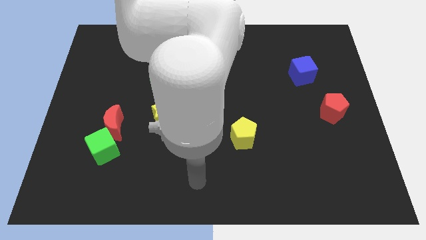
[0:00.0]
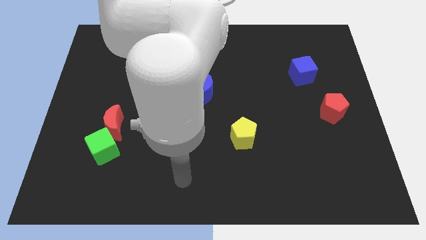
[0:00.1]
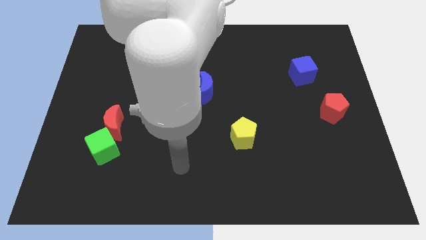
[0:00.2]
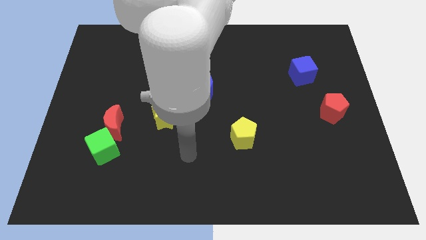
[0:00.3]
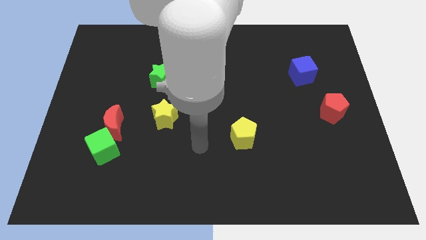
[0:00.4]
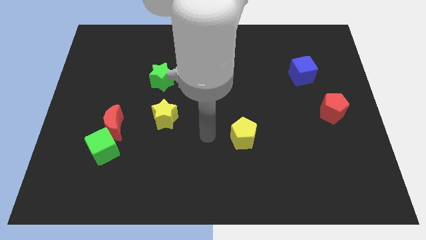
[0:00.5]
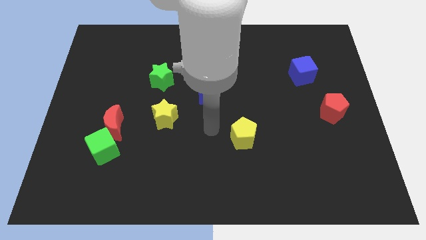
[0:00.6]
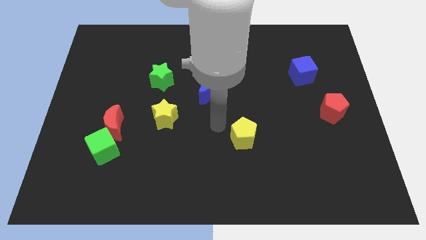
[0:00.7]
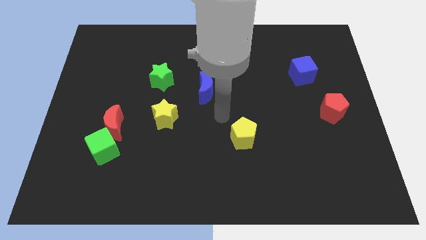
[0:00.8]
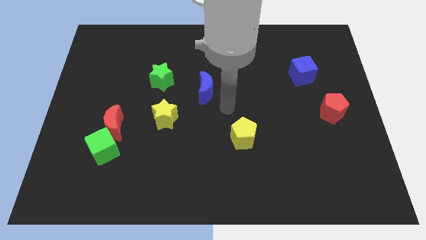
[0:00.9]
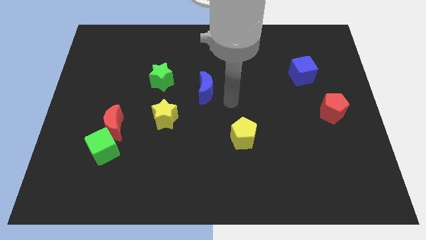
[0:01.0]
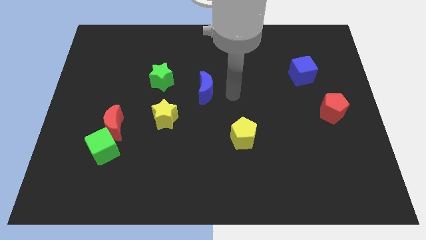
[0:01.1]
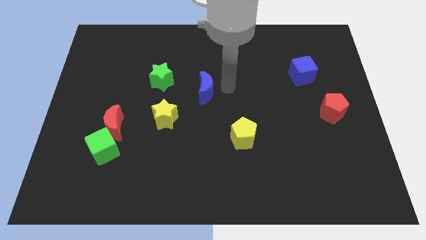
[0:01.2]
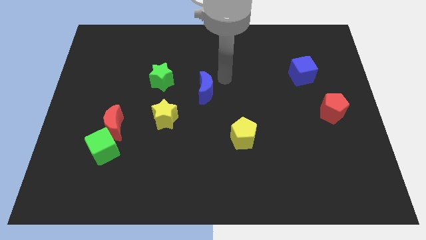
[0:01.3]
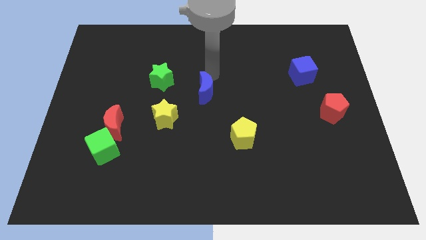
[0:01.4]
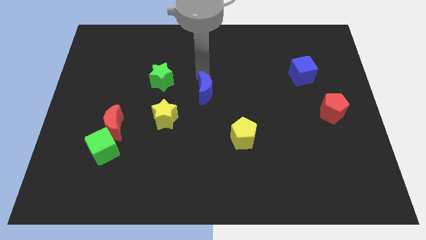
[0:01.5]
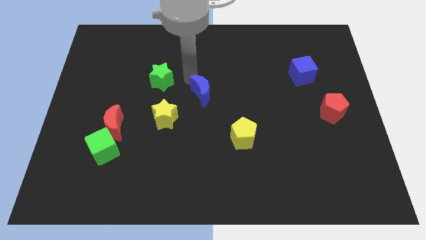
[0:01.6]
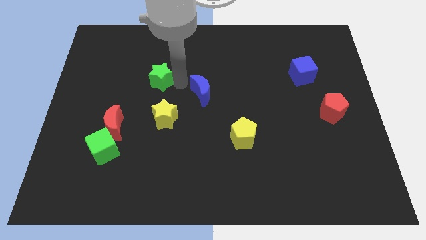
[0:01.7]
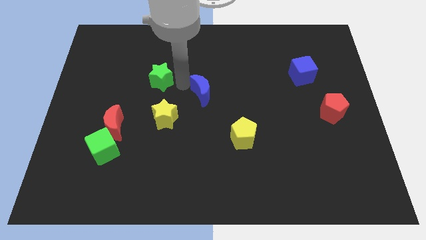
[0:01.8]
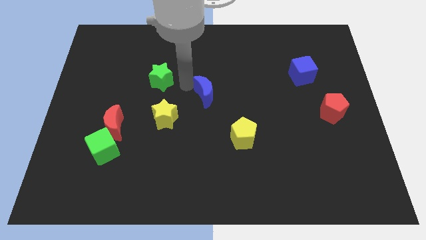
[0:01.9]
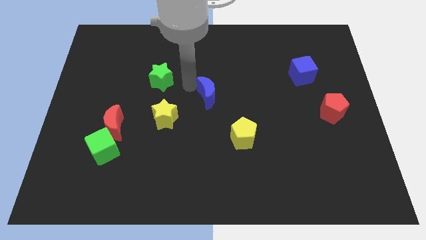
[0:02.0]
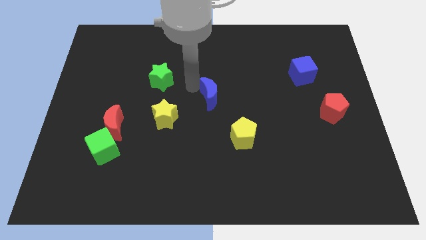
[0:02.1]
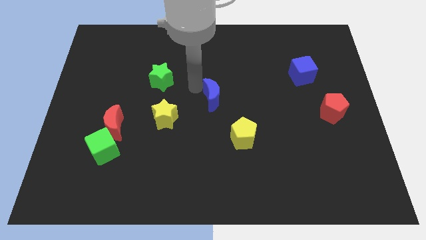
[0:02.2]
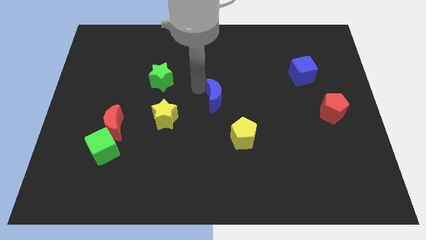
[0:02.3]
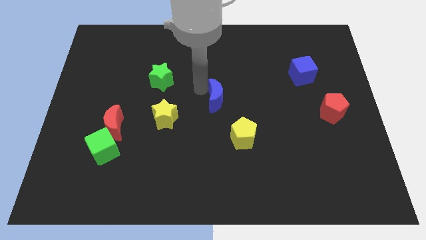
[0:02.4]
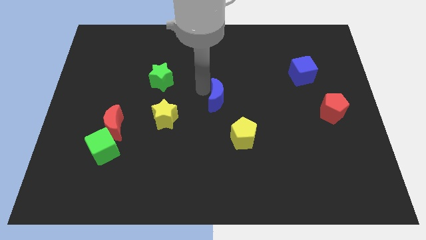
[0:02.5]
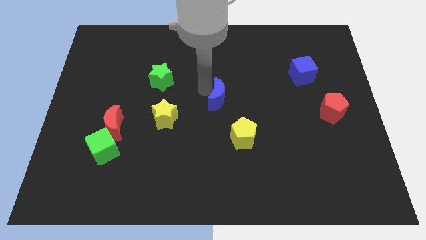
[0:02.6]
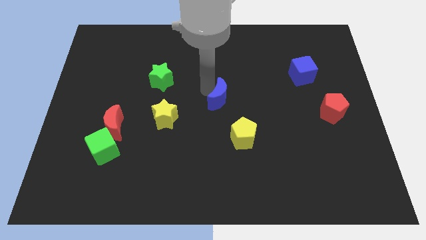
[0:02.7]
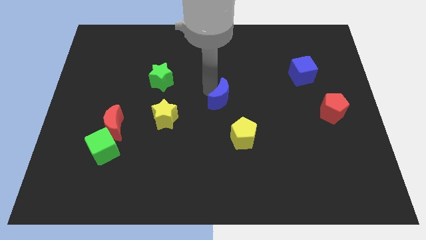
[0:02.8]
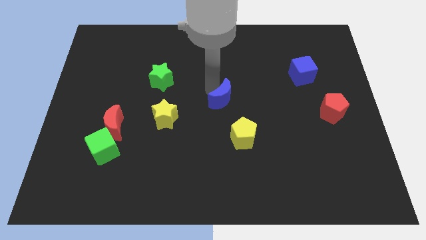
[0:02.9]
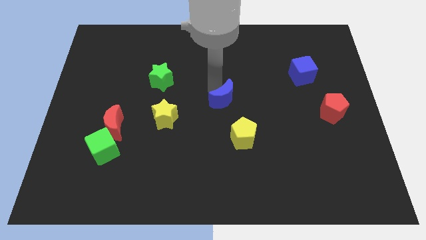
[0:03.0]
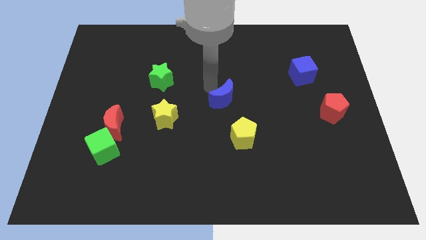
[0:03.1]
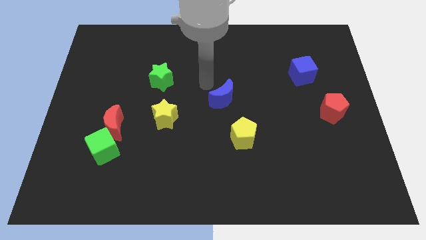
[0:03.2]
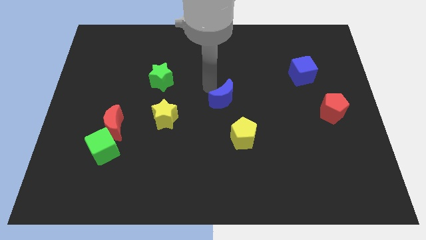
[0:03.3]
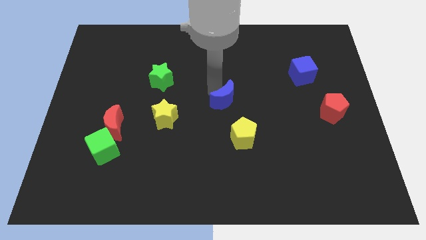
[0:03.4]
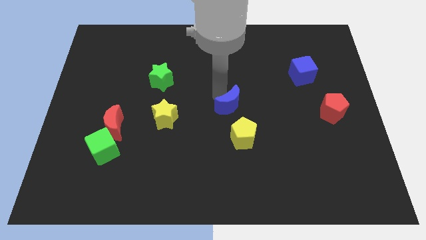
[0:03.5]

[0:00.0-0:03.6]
move the blue moon somewhat diagonally downwards and right

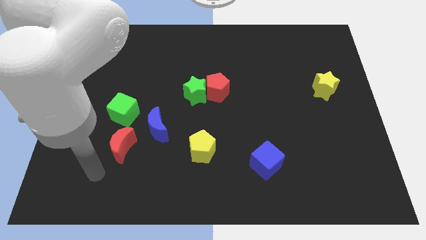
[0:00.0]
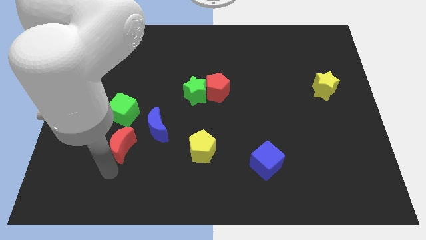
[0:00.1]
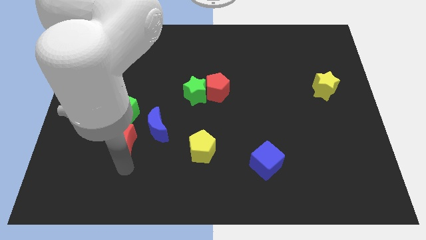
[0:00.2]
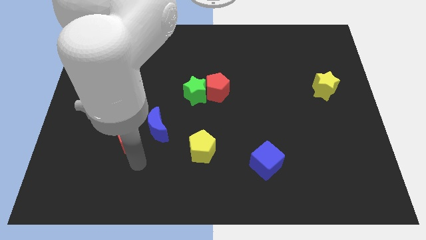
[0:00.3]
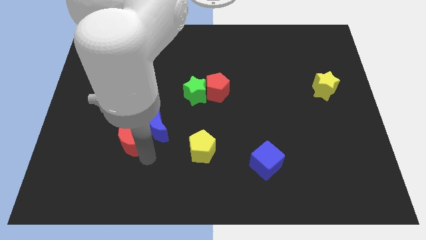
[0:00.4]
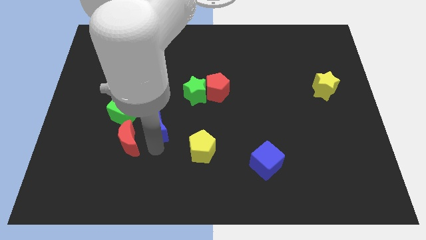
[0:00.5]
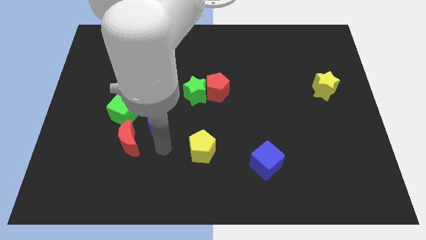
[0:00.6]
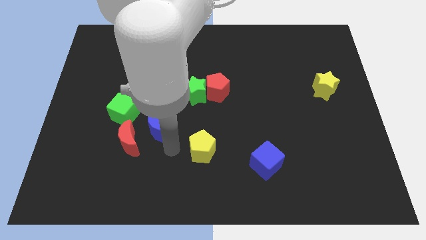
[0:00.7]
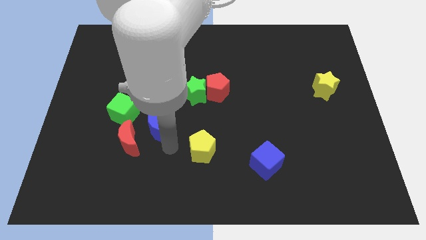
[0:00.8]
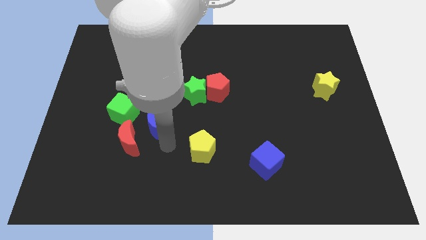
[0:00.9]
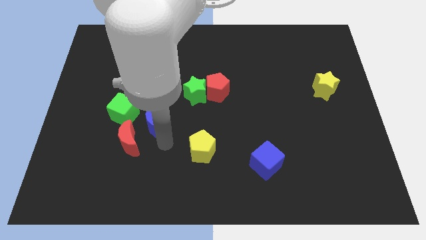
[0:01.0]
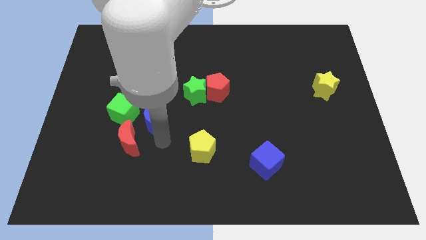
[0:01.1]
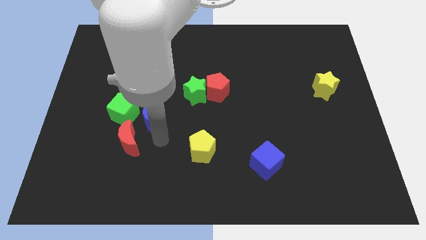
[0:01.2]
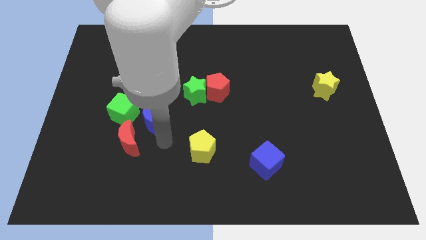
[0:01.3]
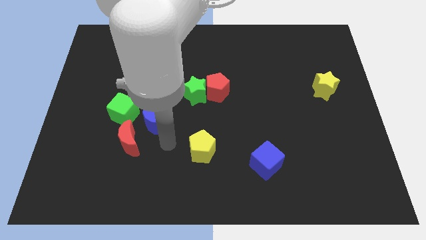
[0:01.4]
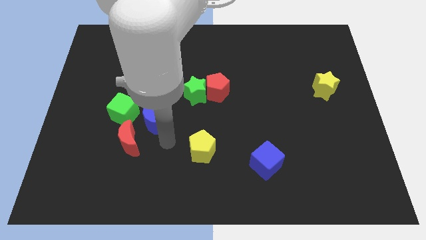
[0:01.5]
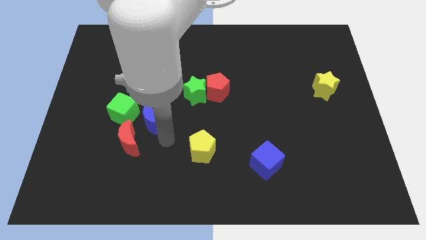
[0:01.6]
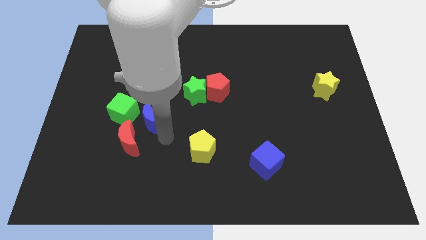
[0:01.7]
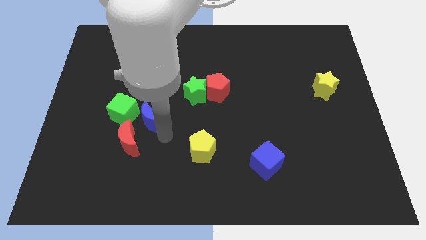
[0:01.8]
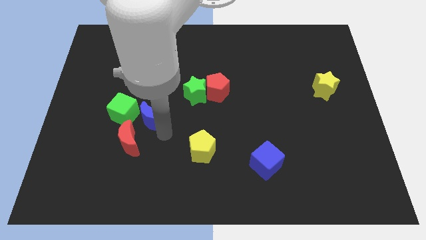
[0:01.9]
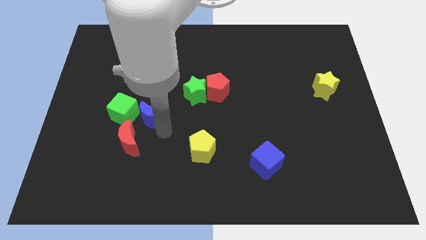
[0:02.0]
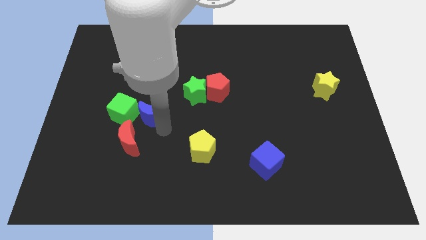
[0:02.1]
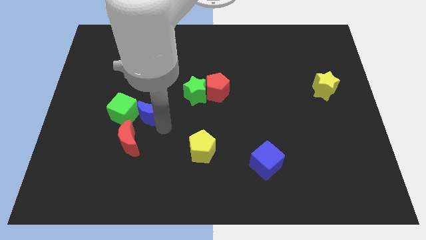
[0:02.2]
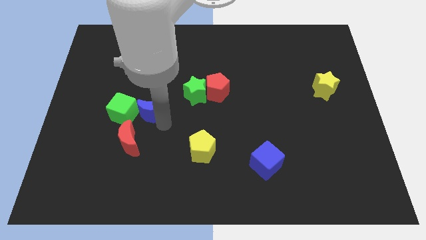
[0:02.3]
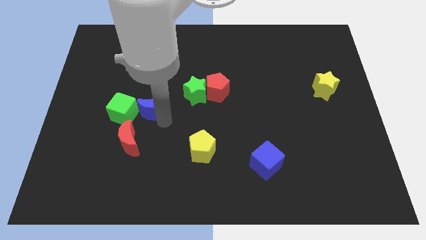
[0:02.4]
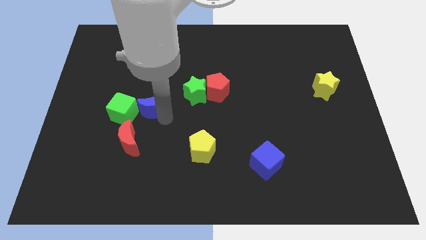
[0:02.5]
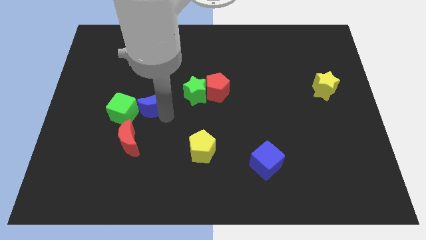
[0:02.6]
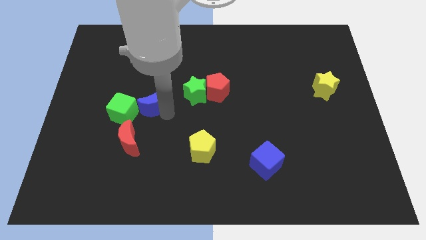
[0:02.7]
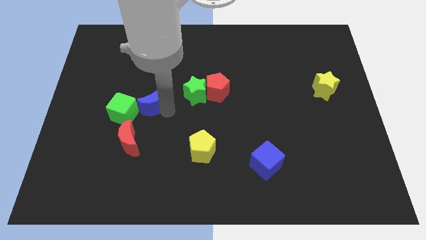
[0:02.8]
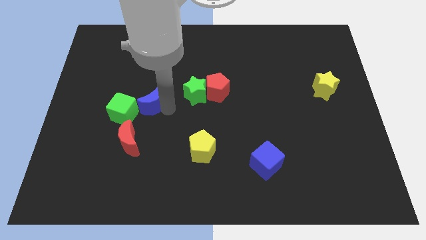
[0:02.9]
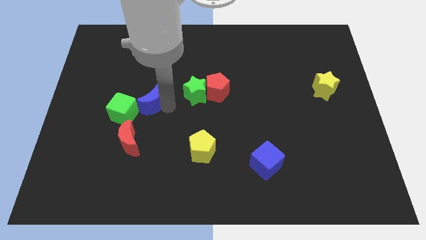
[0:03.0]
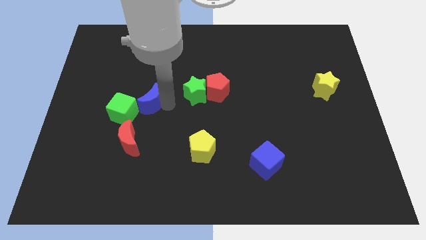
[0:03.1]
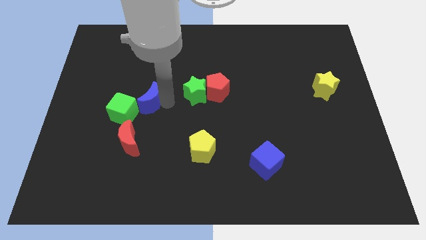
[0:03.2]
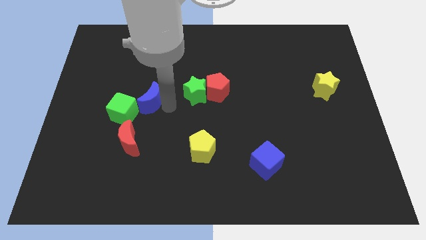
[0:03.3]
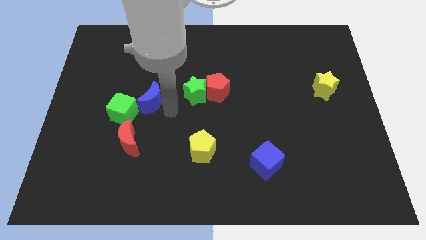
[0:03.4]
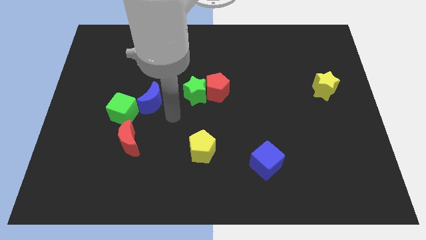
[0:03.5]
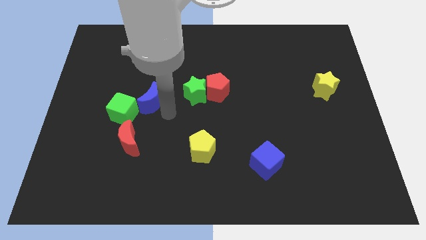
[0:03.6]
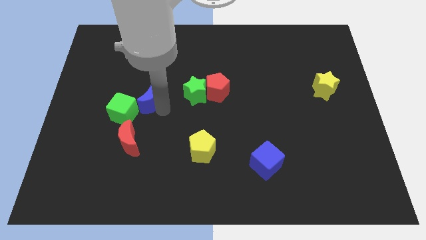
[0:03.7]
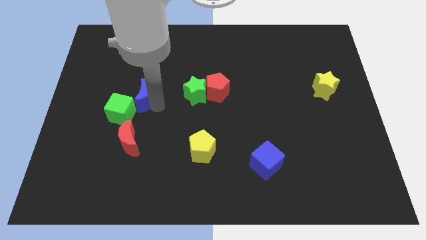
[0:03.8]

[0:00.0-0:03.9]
slightly slide the blue moon up and to the left

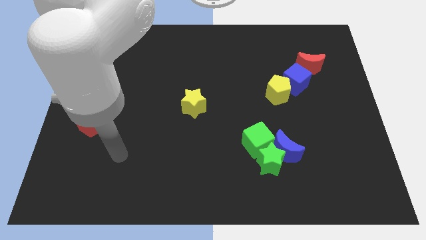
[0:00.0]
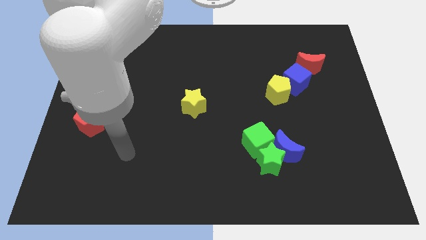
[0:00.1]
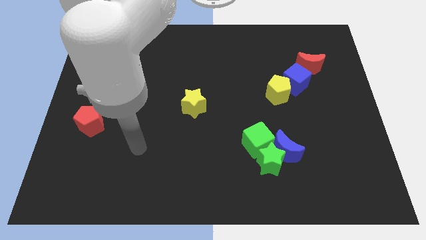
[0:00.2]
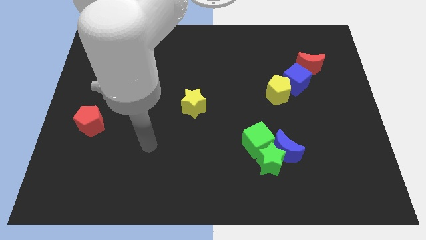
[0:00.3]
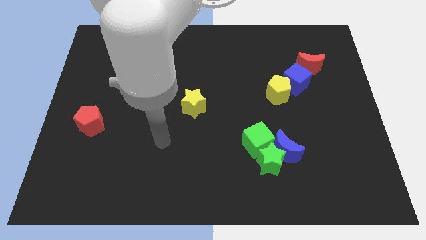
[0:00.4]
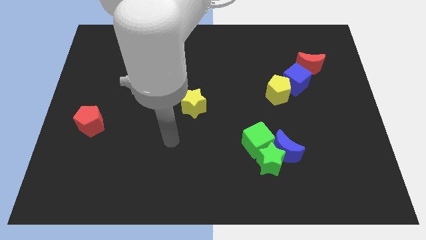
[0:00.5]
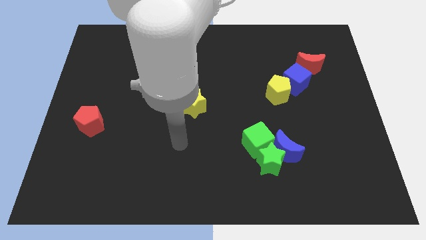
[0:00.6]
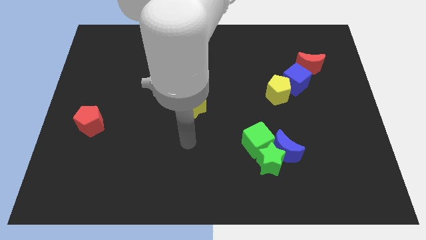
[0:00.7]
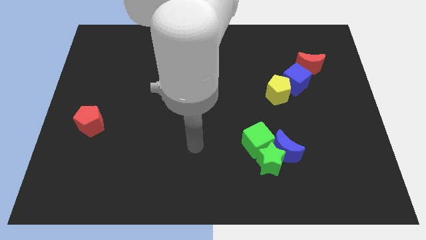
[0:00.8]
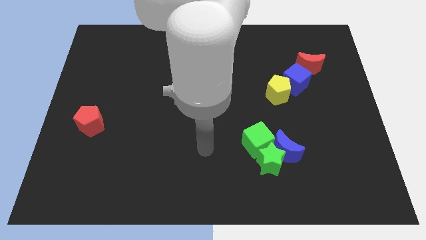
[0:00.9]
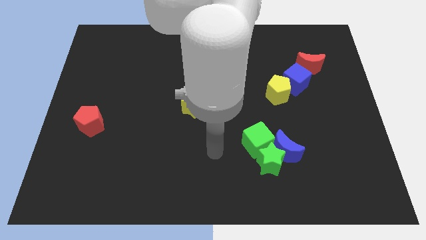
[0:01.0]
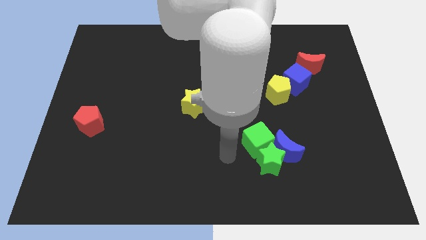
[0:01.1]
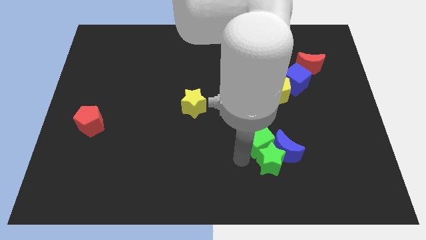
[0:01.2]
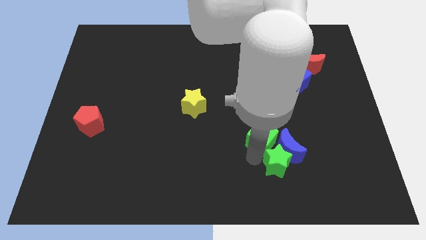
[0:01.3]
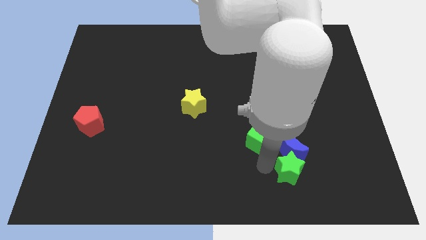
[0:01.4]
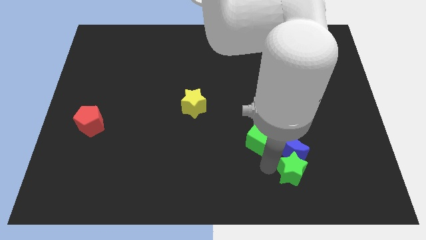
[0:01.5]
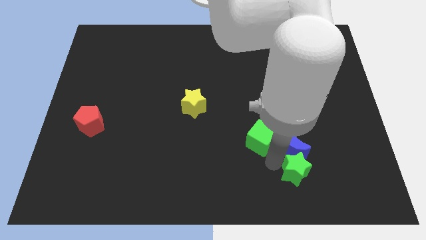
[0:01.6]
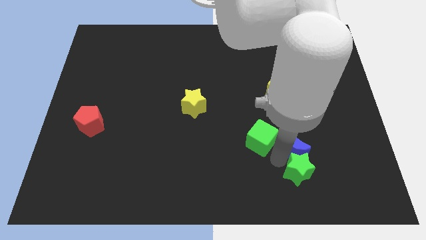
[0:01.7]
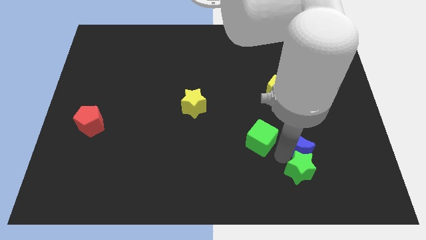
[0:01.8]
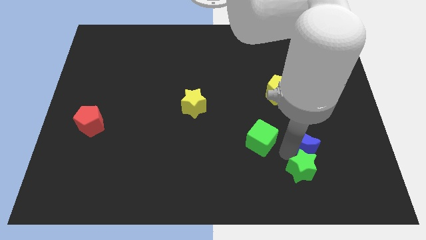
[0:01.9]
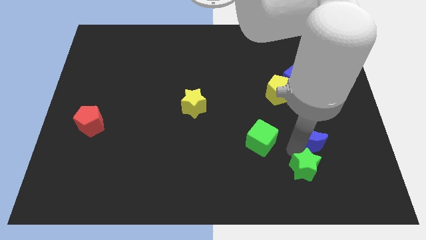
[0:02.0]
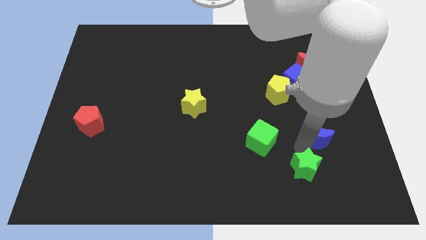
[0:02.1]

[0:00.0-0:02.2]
push the blue moon slightly up and to the right
